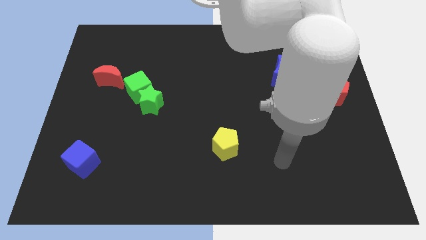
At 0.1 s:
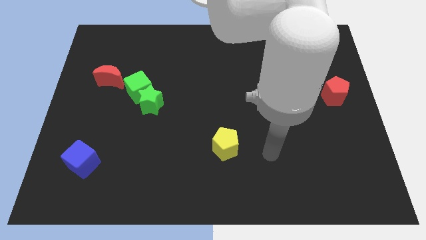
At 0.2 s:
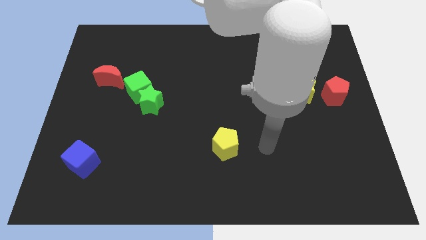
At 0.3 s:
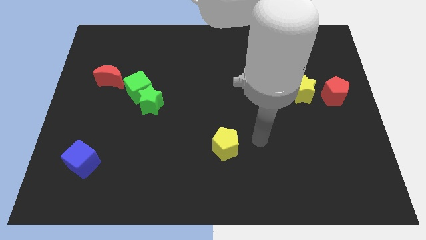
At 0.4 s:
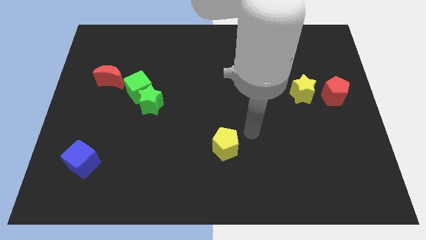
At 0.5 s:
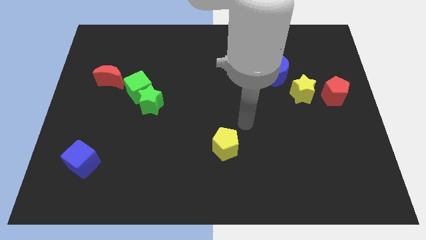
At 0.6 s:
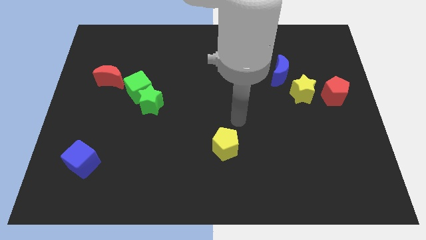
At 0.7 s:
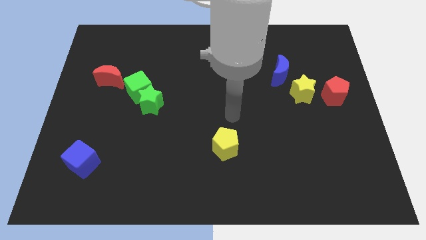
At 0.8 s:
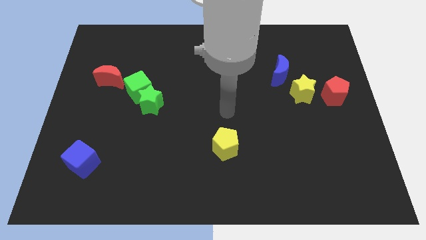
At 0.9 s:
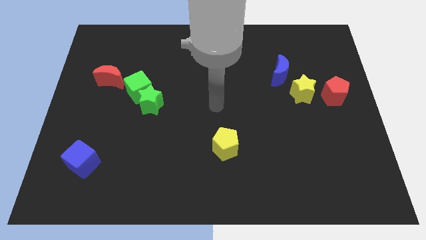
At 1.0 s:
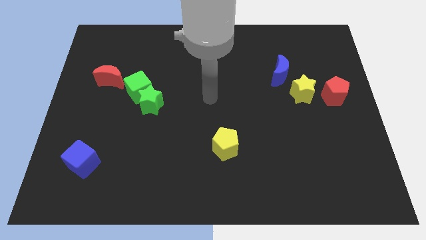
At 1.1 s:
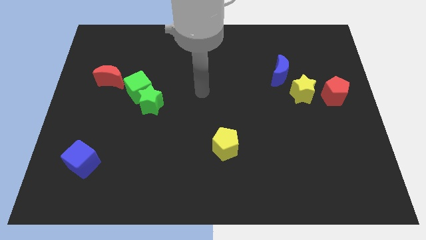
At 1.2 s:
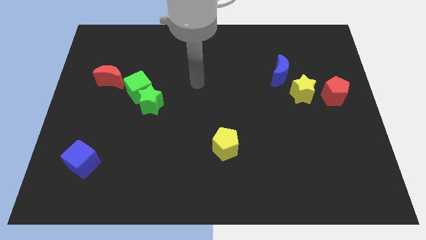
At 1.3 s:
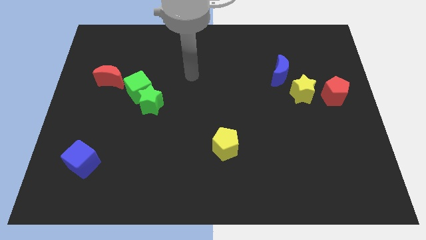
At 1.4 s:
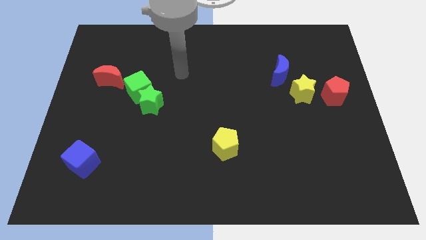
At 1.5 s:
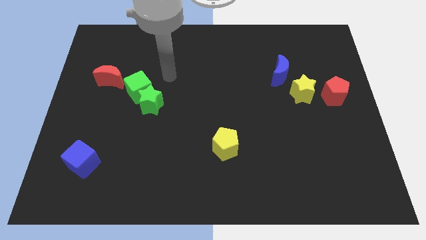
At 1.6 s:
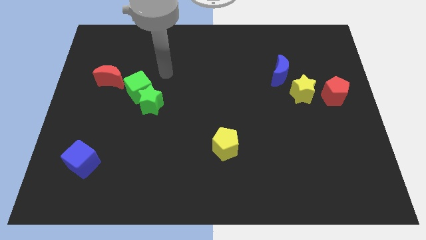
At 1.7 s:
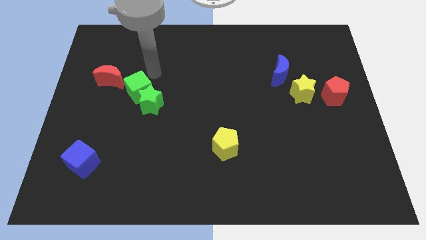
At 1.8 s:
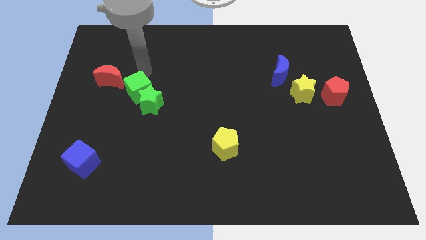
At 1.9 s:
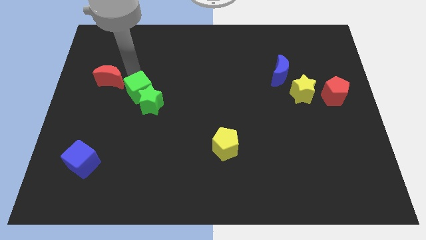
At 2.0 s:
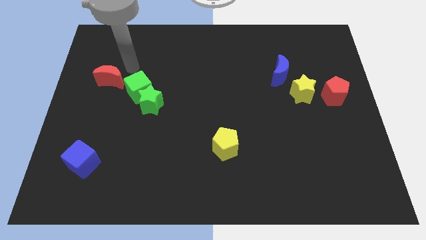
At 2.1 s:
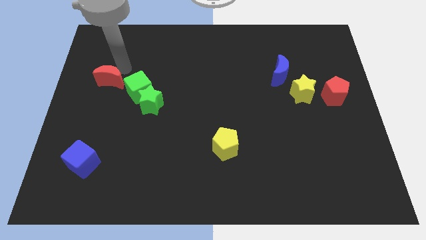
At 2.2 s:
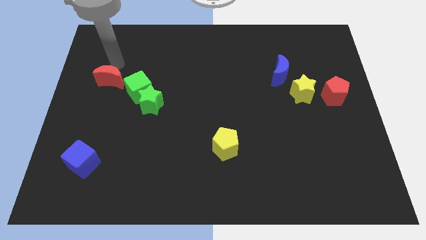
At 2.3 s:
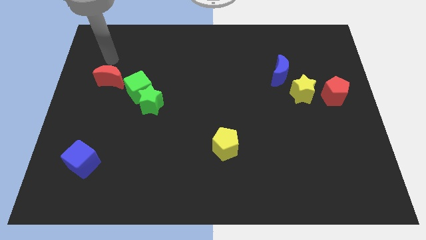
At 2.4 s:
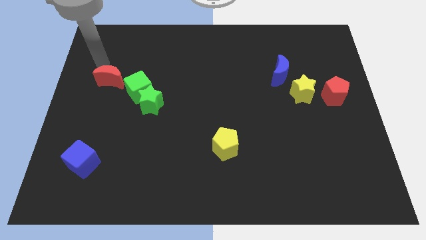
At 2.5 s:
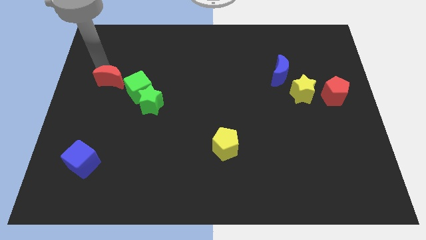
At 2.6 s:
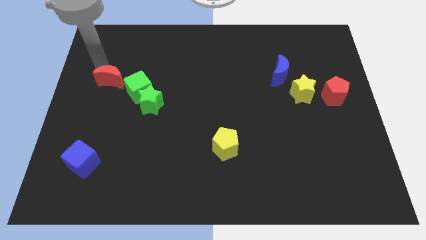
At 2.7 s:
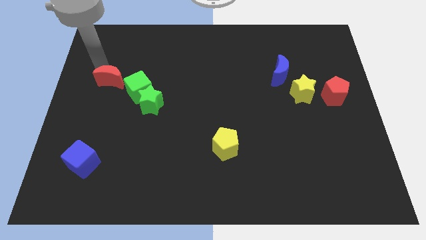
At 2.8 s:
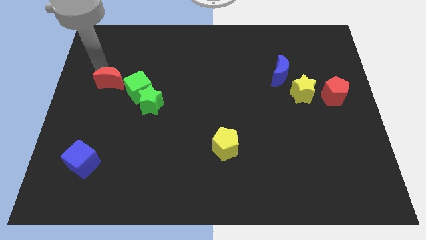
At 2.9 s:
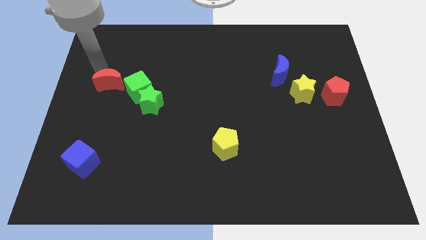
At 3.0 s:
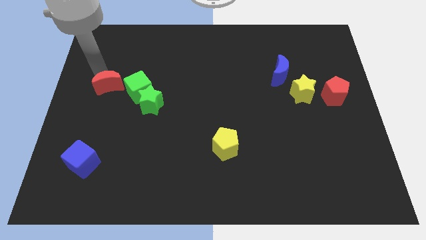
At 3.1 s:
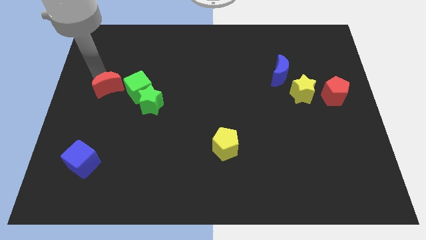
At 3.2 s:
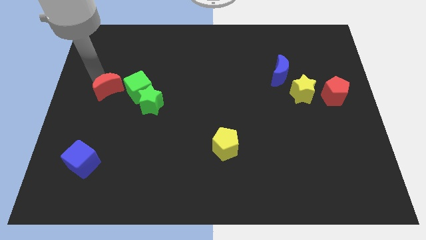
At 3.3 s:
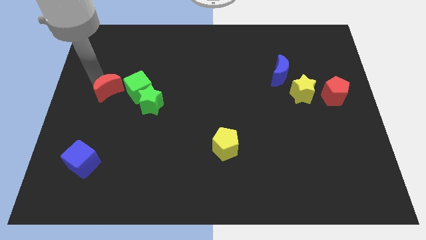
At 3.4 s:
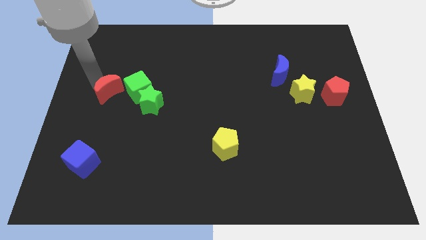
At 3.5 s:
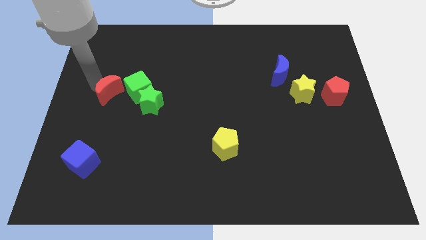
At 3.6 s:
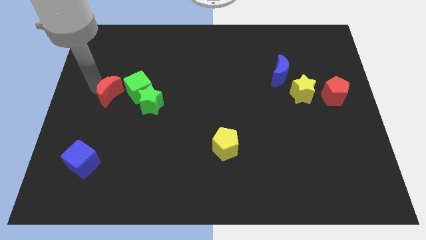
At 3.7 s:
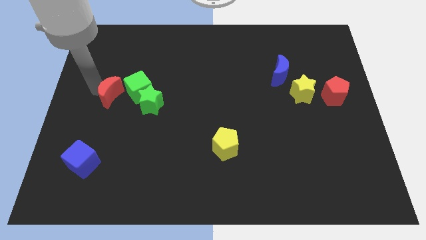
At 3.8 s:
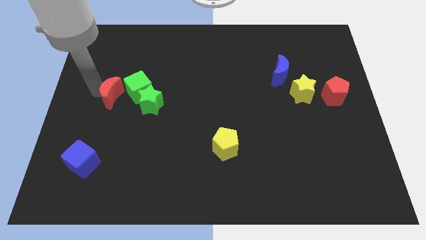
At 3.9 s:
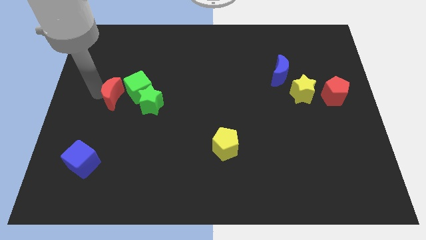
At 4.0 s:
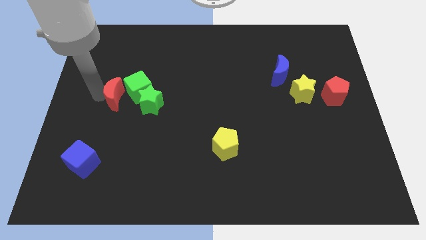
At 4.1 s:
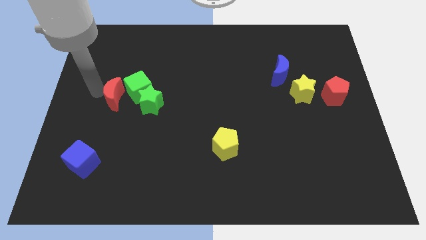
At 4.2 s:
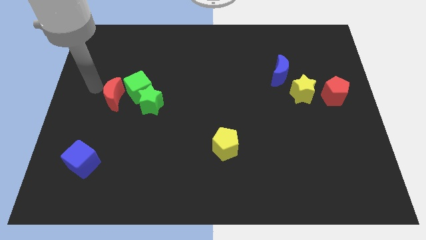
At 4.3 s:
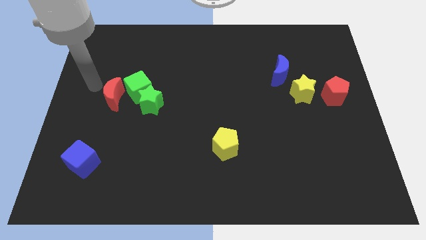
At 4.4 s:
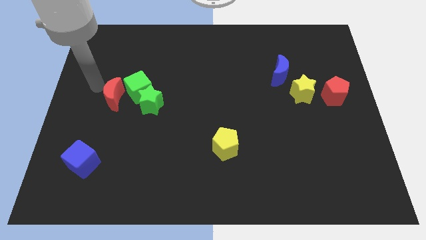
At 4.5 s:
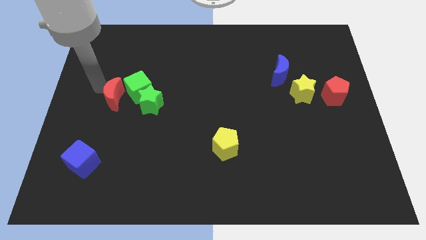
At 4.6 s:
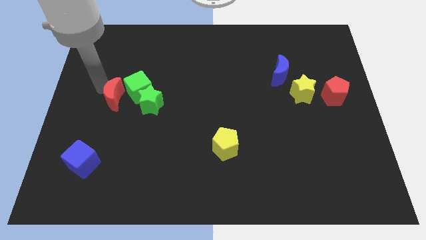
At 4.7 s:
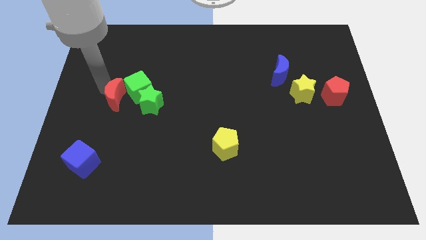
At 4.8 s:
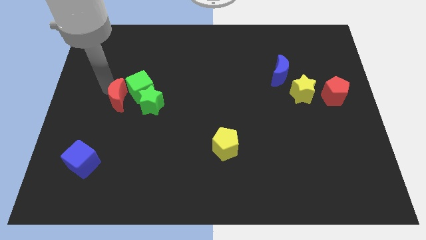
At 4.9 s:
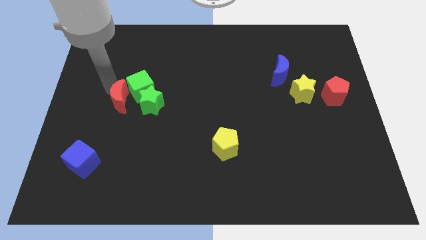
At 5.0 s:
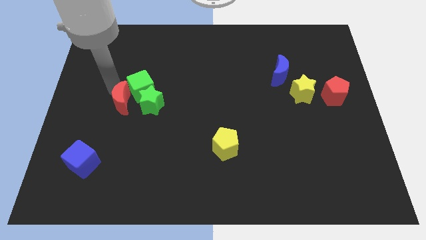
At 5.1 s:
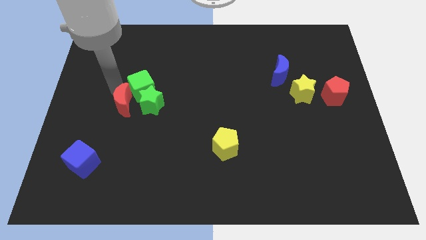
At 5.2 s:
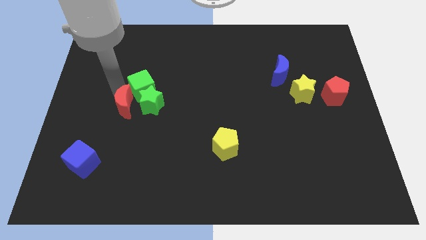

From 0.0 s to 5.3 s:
put the red moon towards the green star

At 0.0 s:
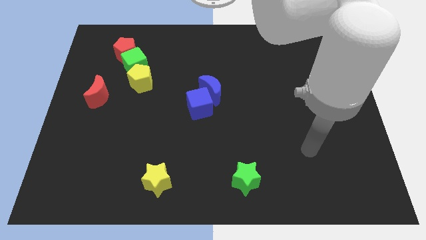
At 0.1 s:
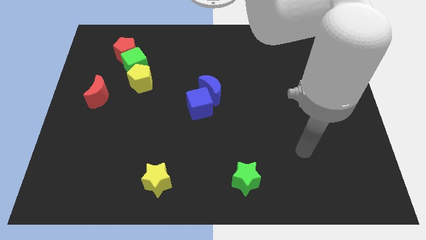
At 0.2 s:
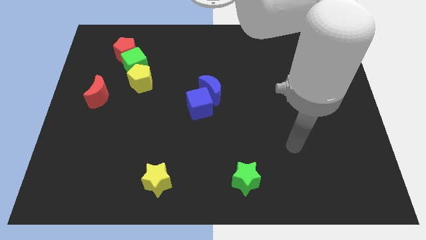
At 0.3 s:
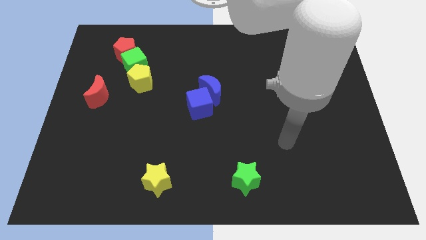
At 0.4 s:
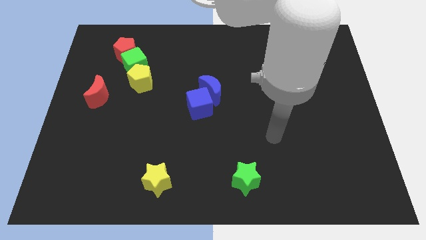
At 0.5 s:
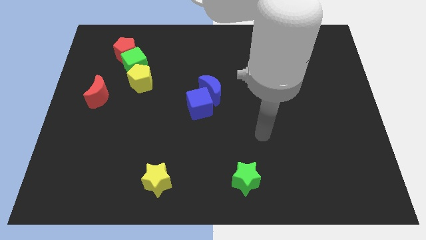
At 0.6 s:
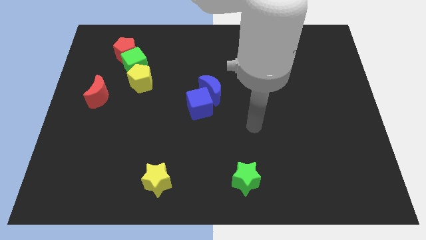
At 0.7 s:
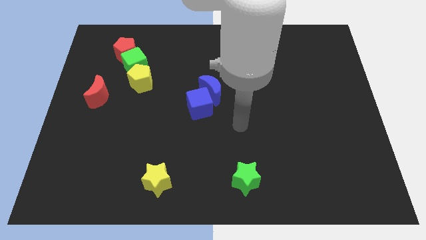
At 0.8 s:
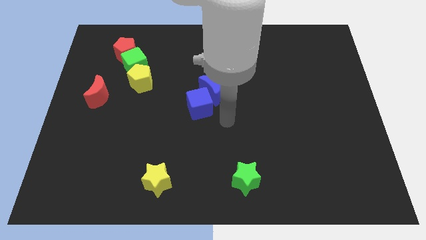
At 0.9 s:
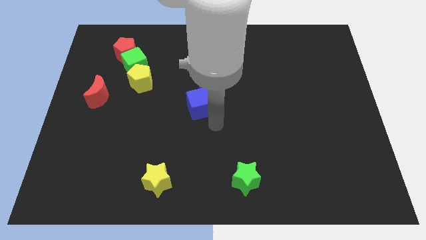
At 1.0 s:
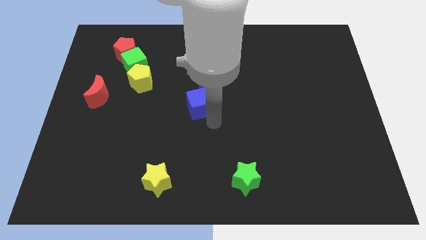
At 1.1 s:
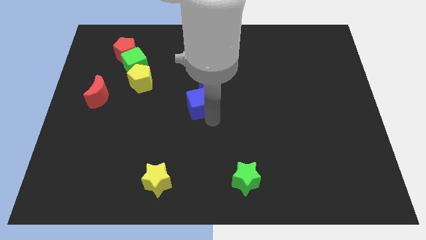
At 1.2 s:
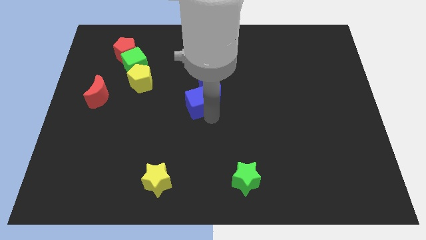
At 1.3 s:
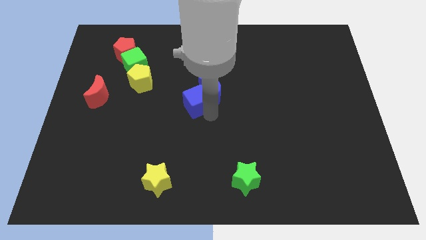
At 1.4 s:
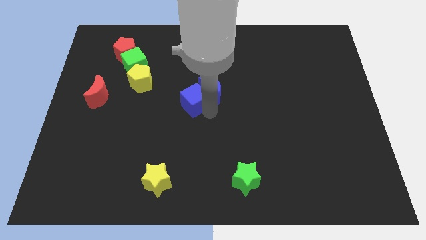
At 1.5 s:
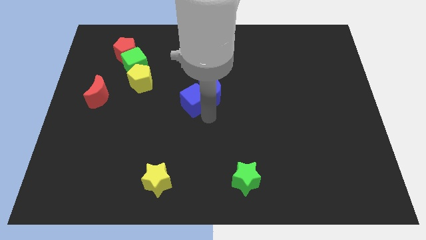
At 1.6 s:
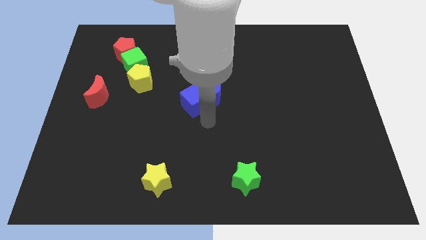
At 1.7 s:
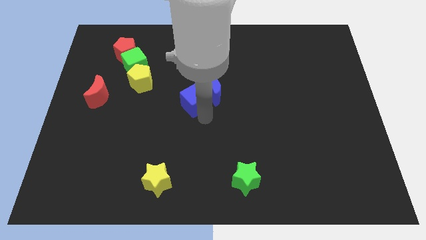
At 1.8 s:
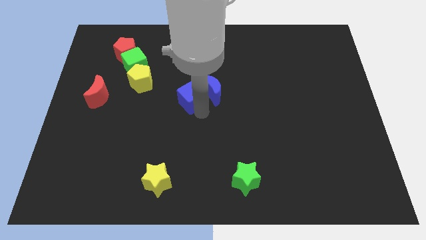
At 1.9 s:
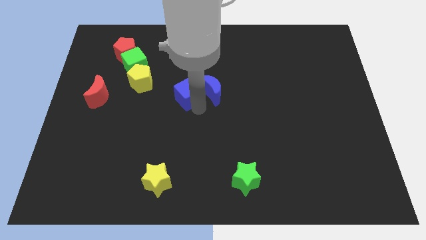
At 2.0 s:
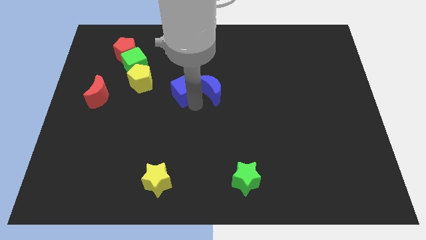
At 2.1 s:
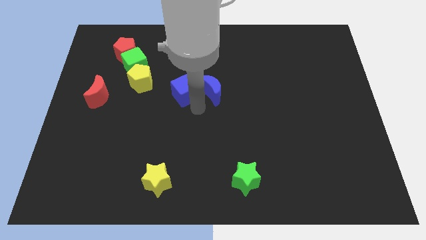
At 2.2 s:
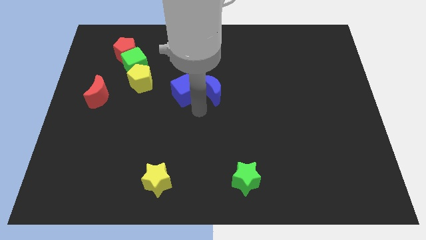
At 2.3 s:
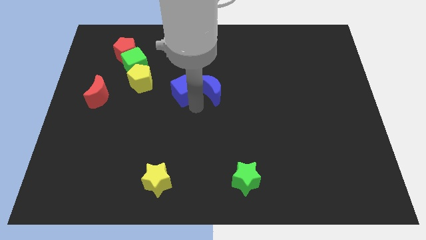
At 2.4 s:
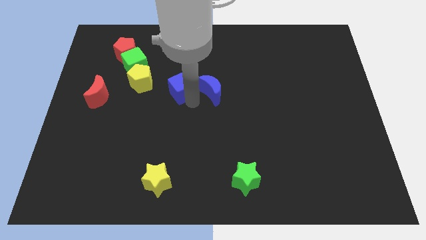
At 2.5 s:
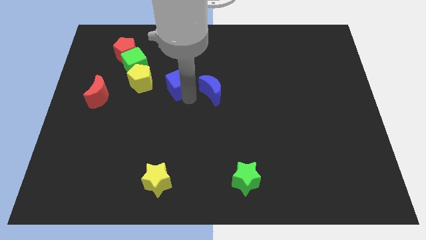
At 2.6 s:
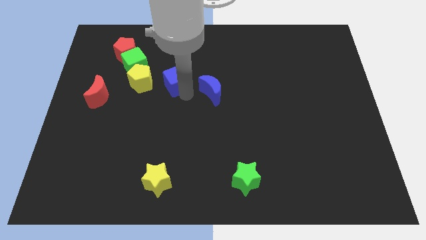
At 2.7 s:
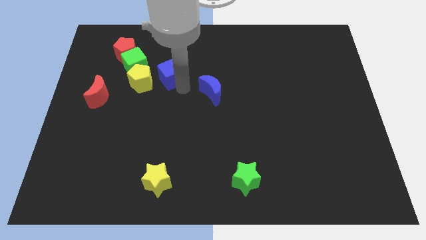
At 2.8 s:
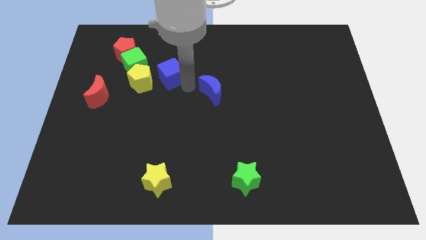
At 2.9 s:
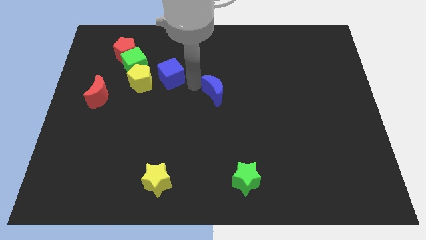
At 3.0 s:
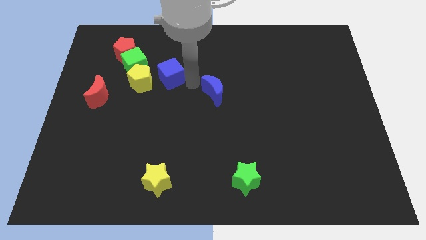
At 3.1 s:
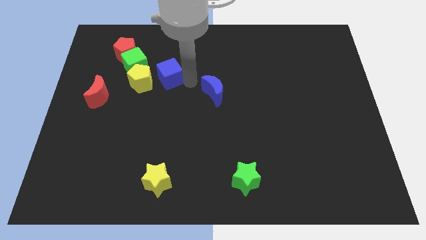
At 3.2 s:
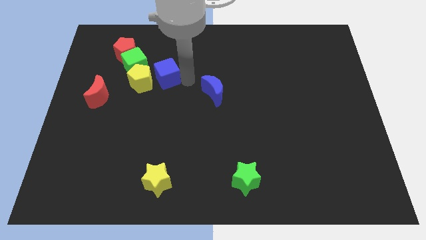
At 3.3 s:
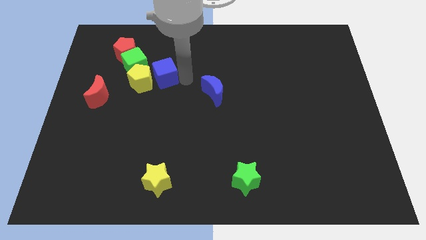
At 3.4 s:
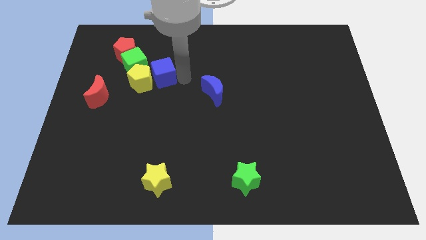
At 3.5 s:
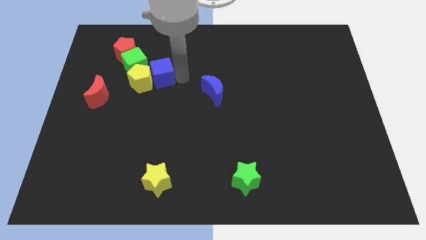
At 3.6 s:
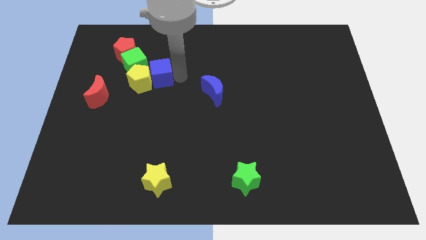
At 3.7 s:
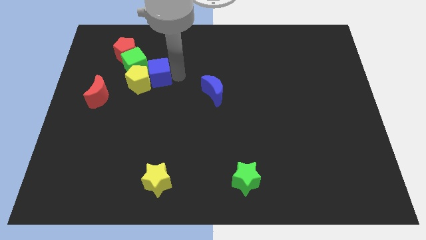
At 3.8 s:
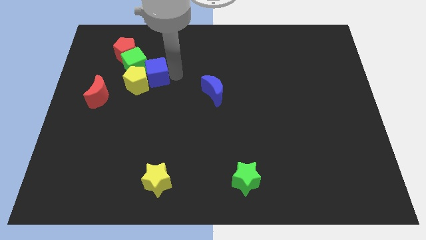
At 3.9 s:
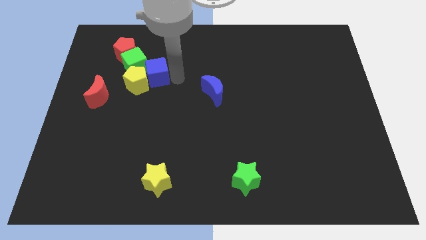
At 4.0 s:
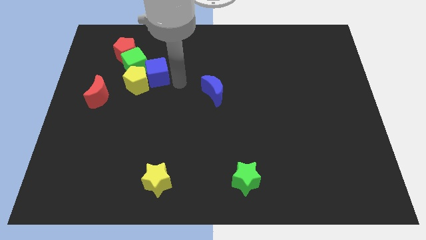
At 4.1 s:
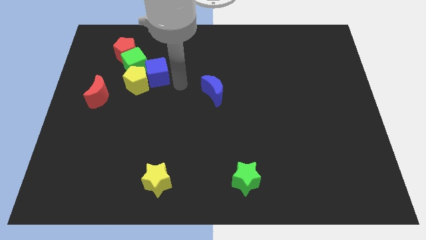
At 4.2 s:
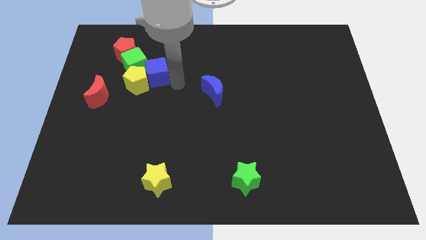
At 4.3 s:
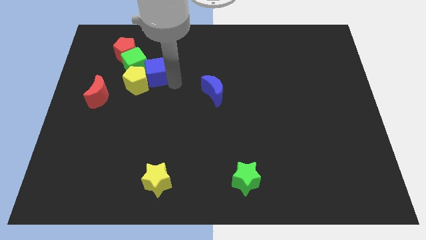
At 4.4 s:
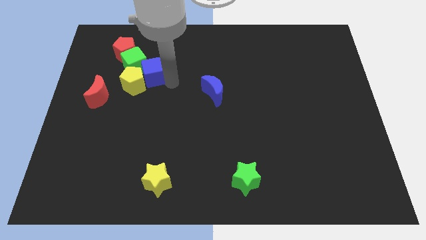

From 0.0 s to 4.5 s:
move the blue cube close to the green cube
